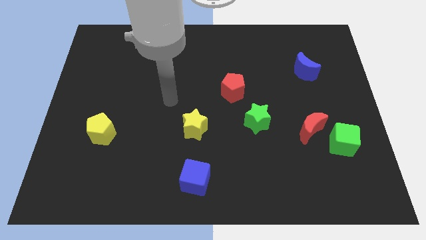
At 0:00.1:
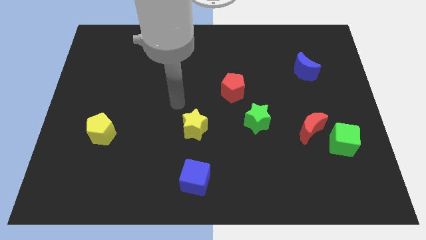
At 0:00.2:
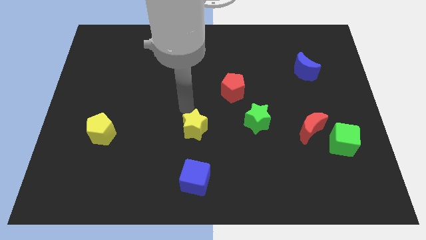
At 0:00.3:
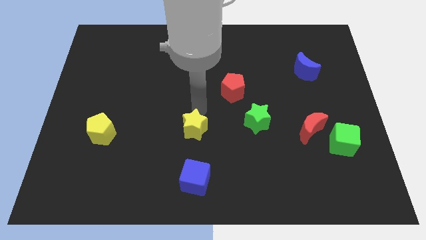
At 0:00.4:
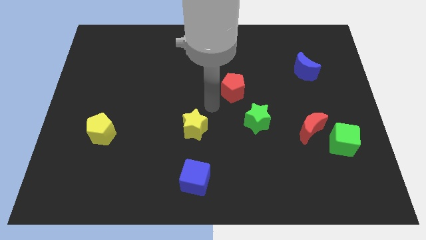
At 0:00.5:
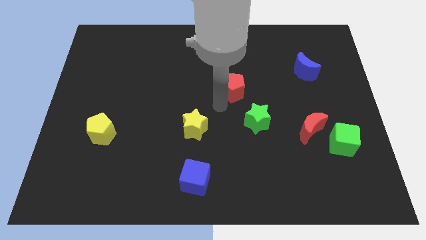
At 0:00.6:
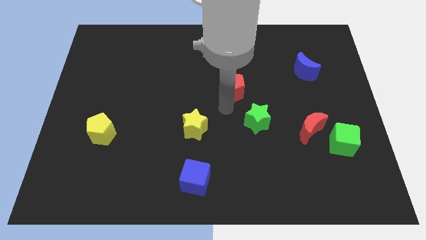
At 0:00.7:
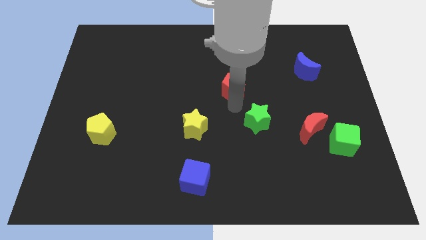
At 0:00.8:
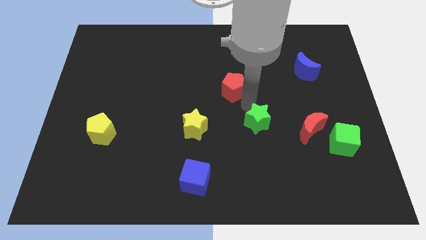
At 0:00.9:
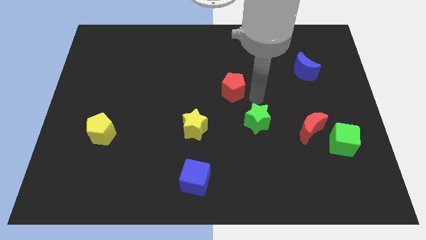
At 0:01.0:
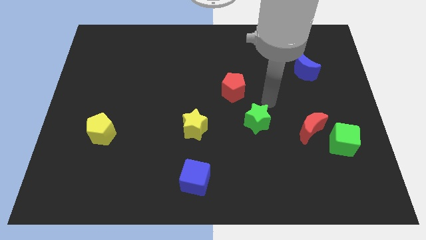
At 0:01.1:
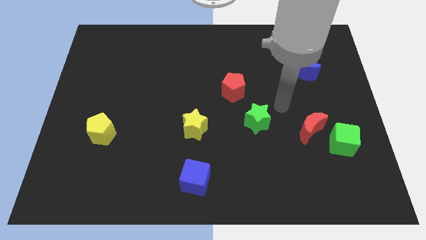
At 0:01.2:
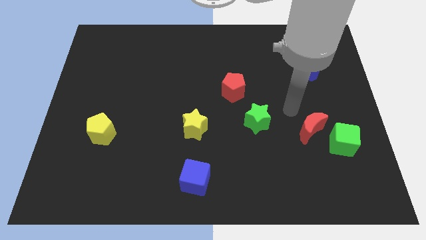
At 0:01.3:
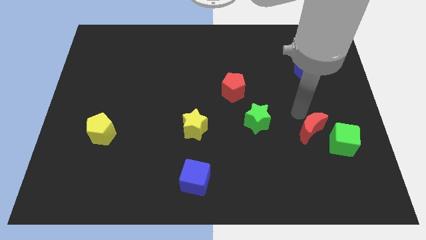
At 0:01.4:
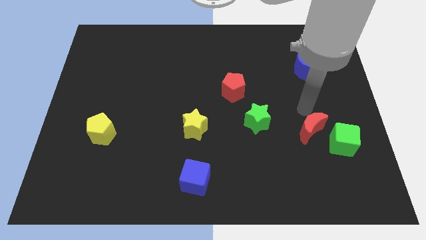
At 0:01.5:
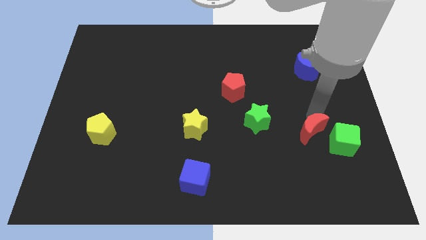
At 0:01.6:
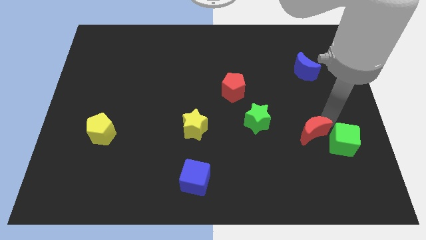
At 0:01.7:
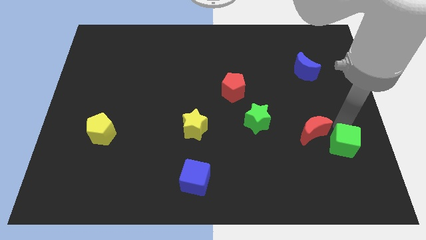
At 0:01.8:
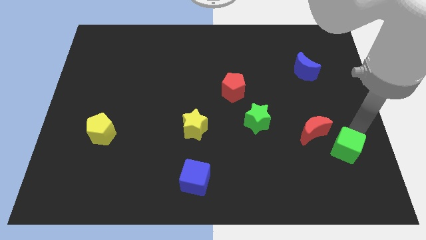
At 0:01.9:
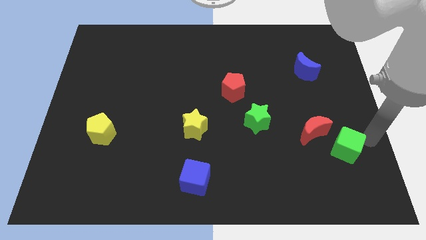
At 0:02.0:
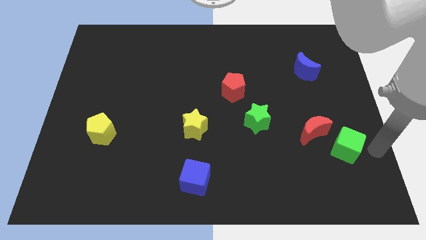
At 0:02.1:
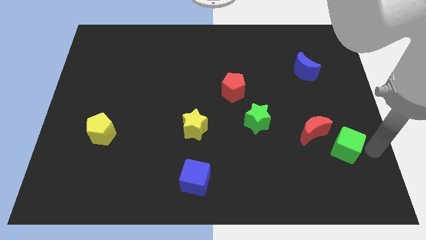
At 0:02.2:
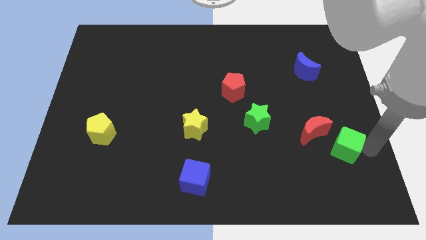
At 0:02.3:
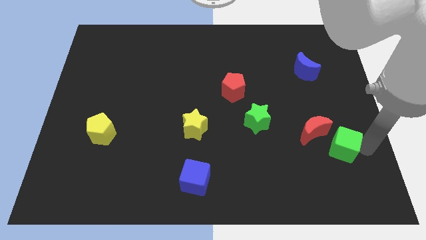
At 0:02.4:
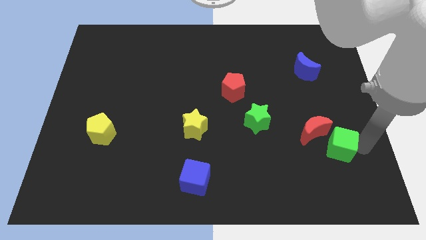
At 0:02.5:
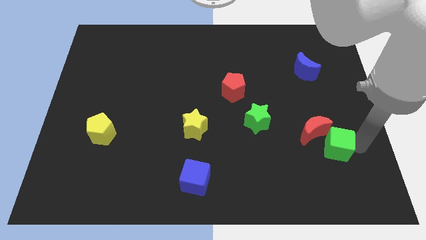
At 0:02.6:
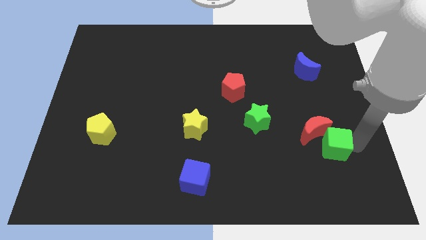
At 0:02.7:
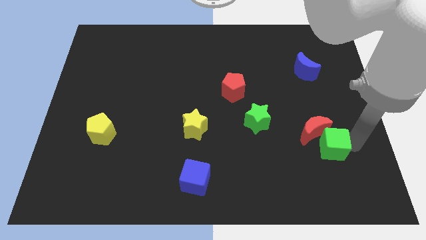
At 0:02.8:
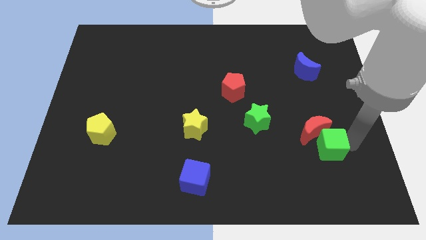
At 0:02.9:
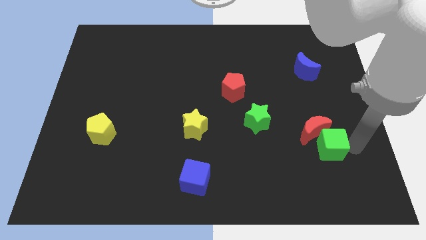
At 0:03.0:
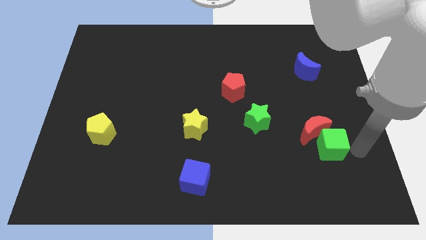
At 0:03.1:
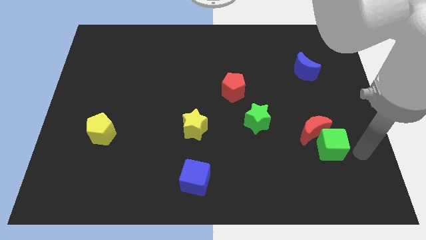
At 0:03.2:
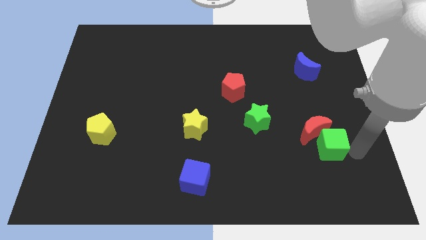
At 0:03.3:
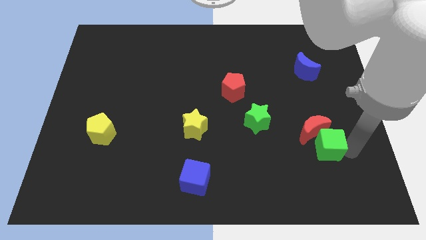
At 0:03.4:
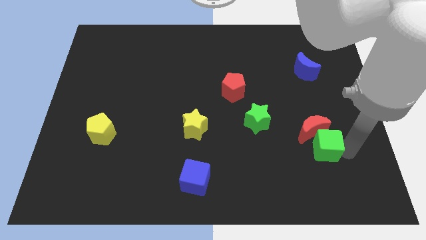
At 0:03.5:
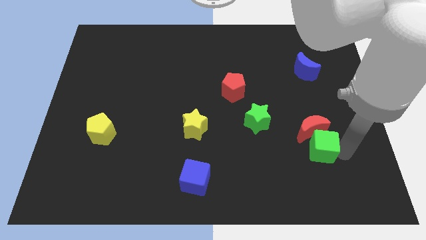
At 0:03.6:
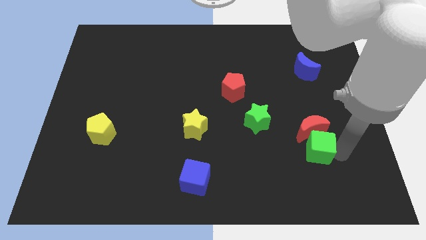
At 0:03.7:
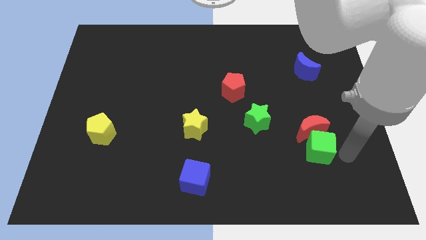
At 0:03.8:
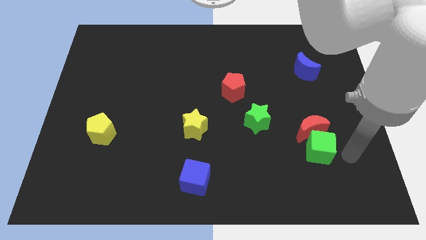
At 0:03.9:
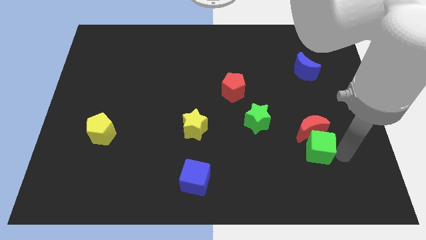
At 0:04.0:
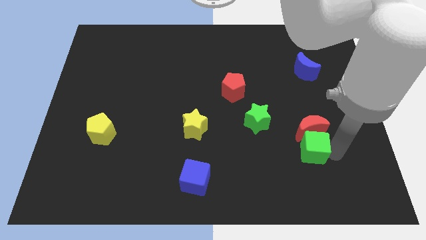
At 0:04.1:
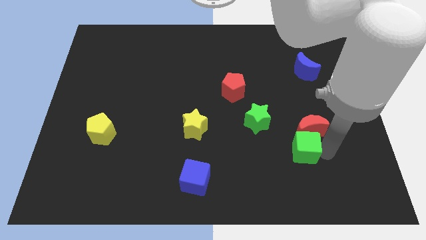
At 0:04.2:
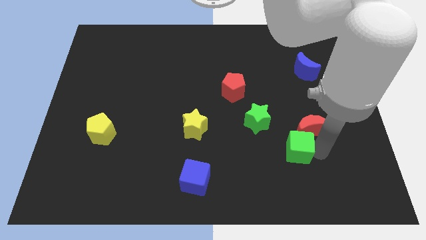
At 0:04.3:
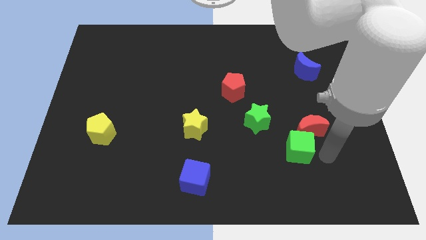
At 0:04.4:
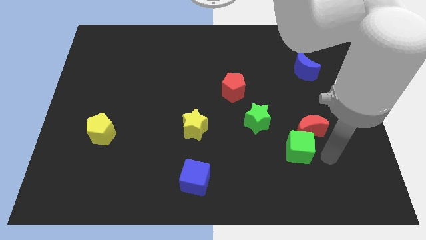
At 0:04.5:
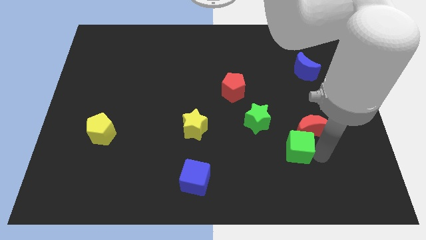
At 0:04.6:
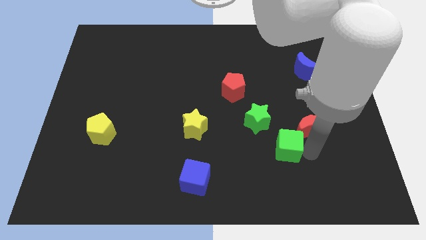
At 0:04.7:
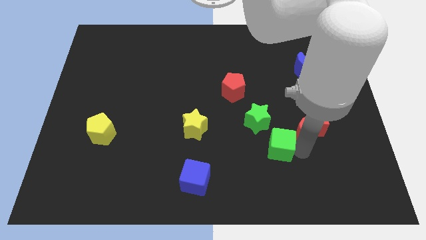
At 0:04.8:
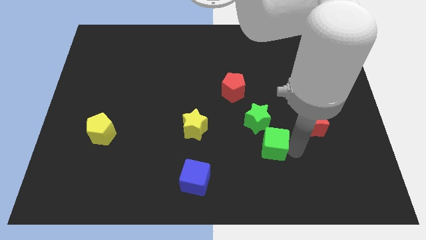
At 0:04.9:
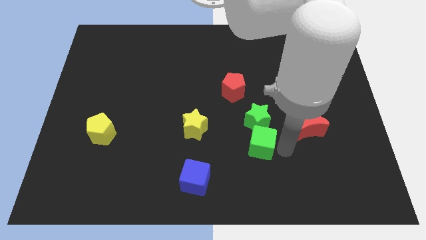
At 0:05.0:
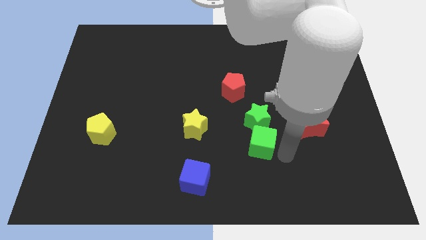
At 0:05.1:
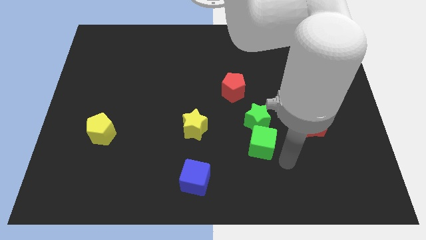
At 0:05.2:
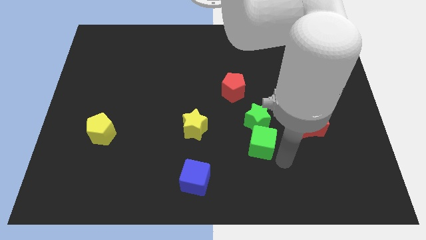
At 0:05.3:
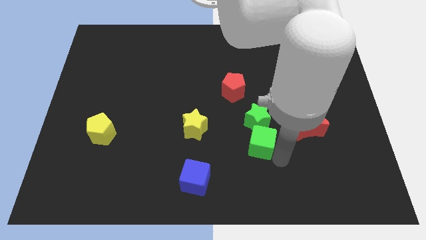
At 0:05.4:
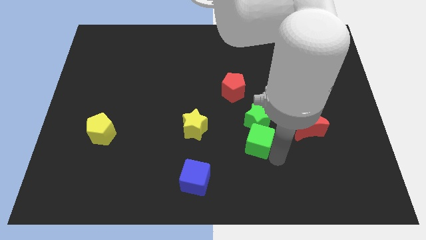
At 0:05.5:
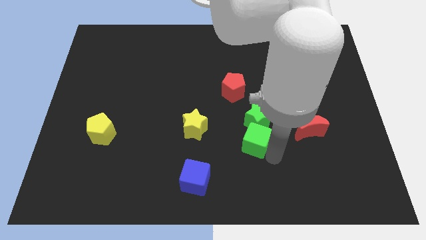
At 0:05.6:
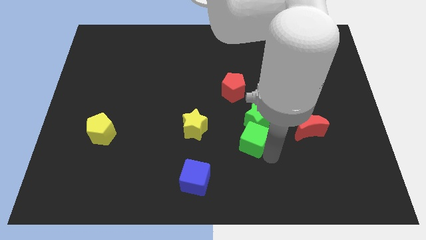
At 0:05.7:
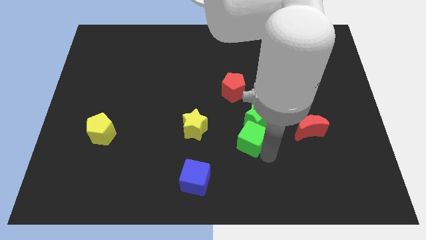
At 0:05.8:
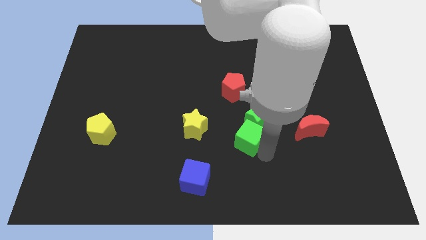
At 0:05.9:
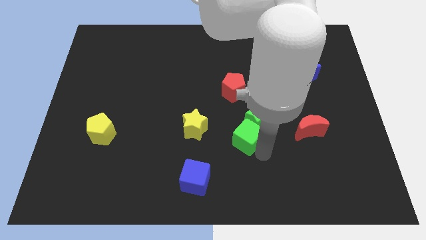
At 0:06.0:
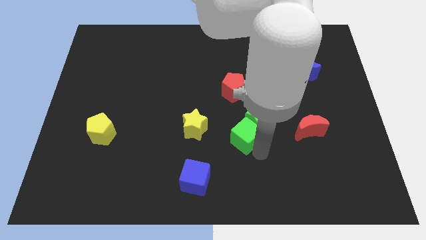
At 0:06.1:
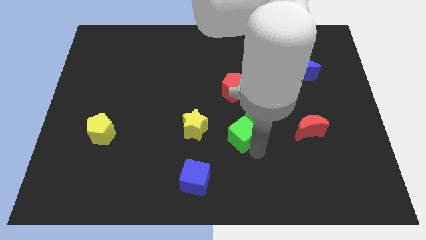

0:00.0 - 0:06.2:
move the green cube to the middle

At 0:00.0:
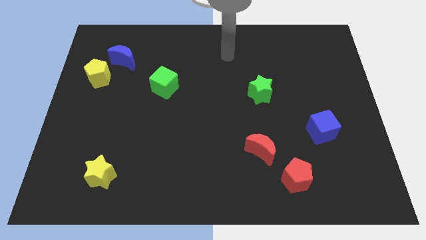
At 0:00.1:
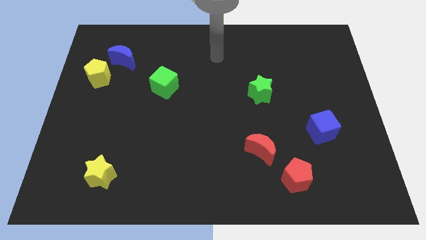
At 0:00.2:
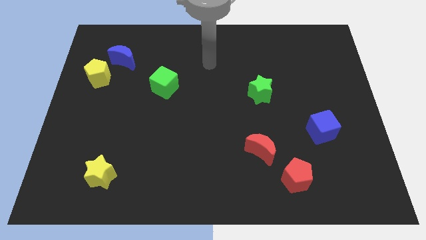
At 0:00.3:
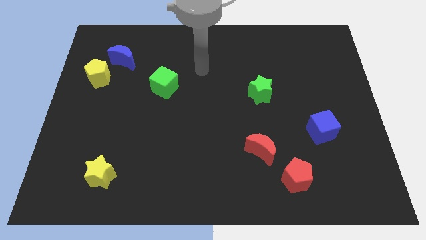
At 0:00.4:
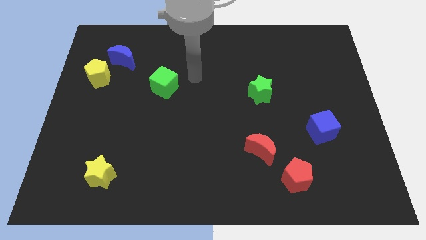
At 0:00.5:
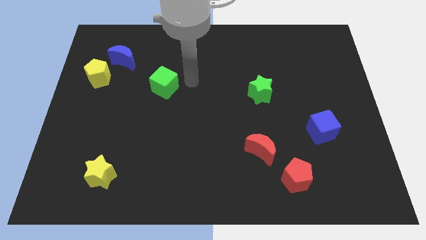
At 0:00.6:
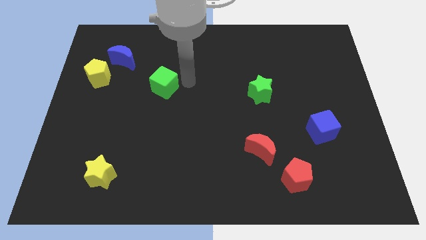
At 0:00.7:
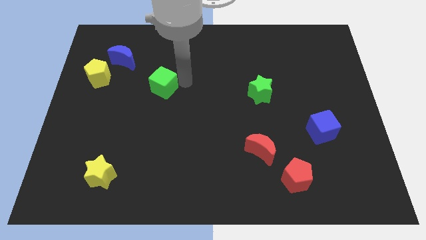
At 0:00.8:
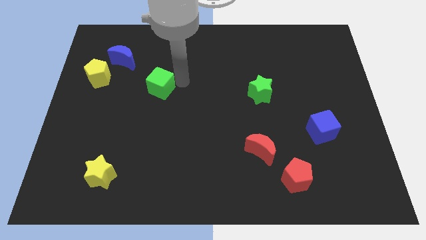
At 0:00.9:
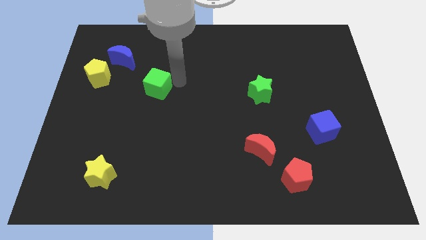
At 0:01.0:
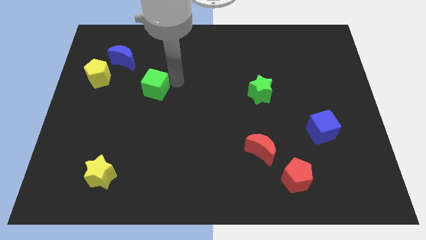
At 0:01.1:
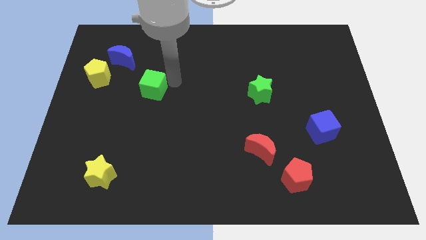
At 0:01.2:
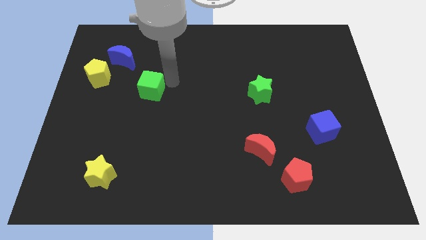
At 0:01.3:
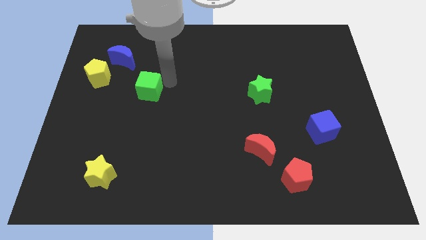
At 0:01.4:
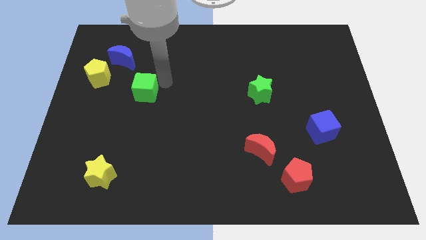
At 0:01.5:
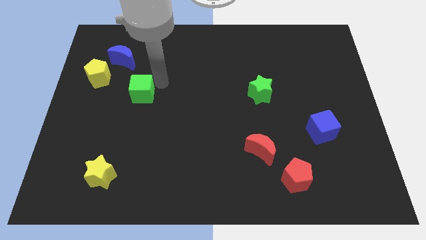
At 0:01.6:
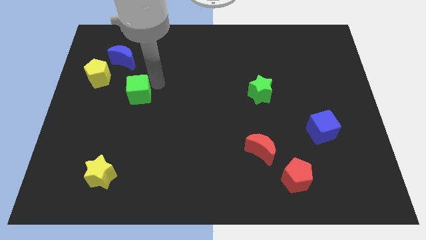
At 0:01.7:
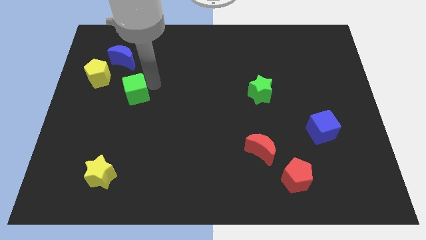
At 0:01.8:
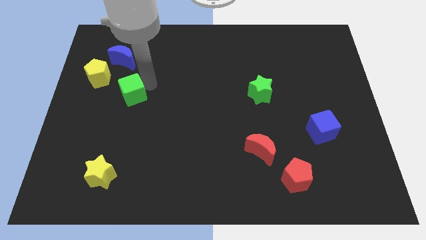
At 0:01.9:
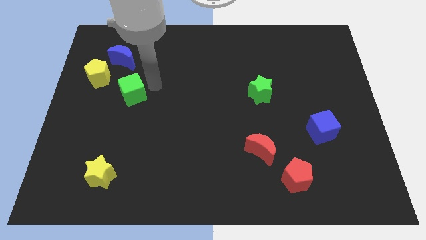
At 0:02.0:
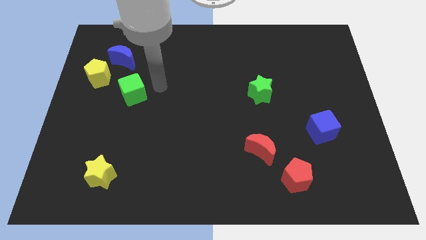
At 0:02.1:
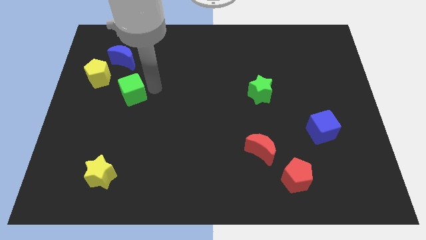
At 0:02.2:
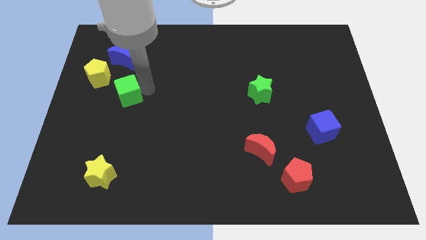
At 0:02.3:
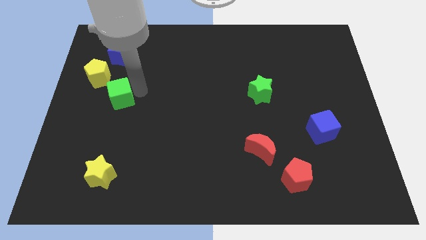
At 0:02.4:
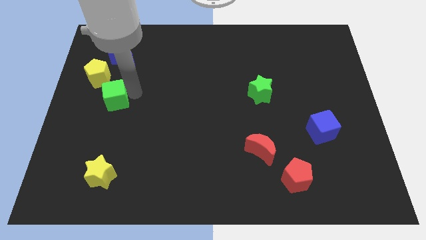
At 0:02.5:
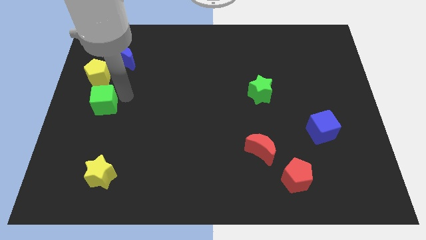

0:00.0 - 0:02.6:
slide the green cube to the left side of the board
